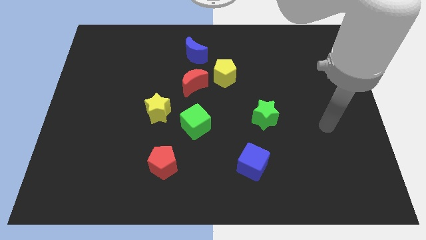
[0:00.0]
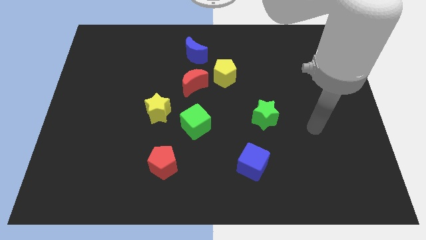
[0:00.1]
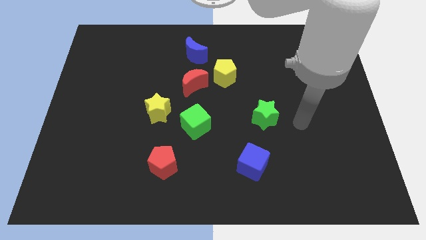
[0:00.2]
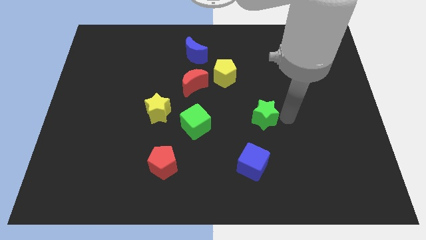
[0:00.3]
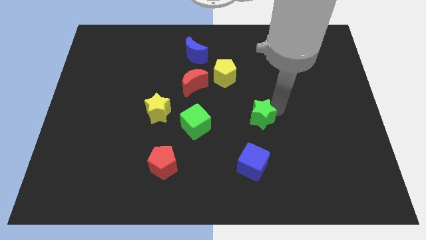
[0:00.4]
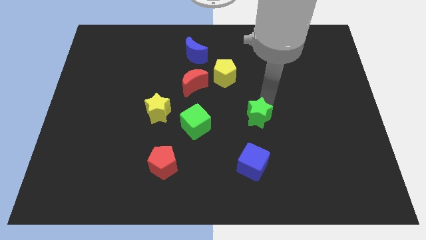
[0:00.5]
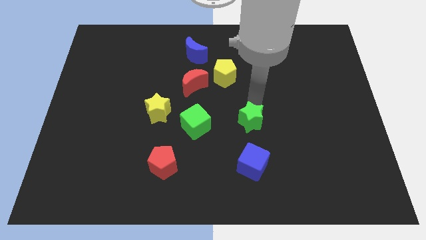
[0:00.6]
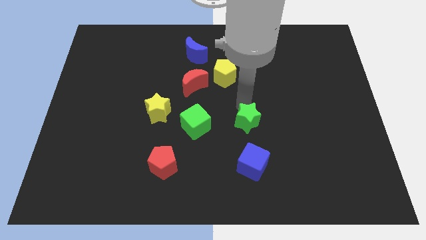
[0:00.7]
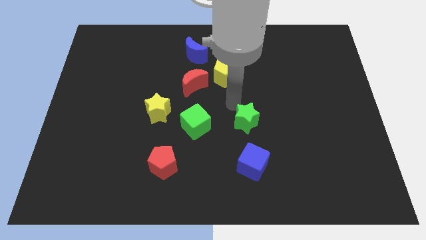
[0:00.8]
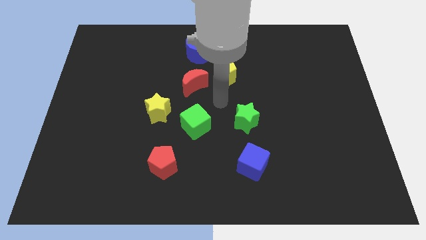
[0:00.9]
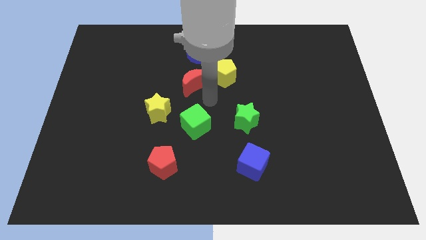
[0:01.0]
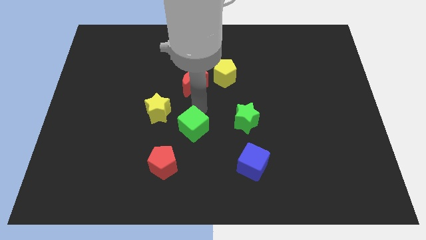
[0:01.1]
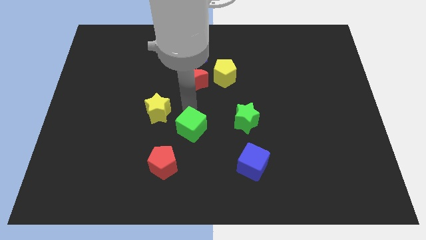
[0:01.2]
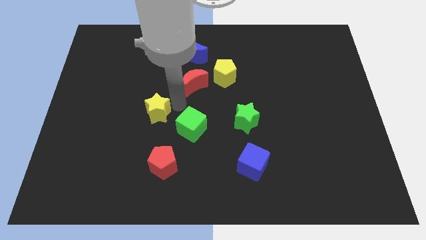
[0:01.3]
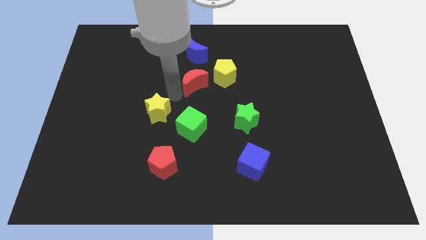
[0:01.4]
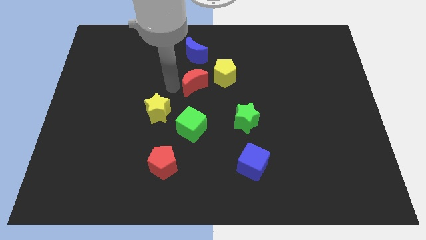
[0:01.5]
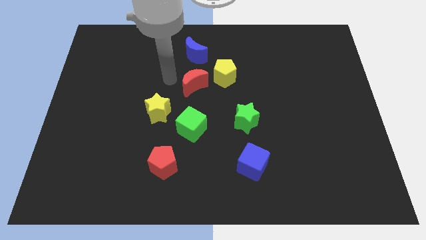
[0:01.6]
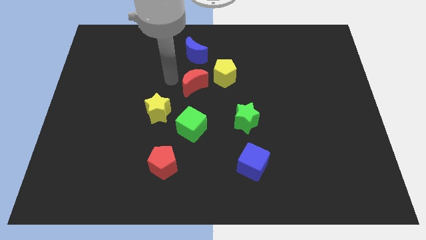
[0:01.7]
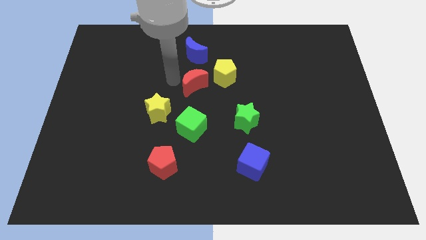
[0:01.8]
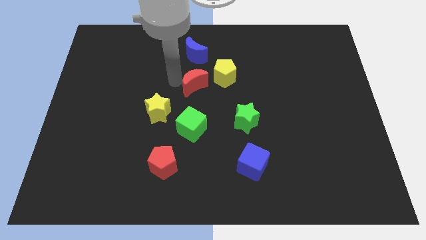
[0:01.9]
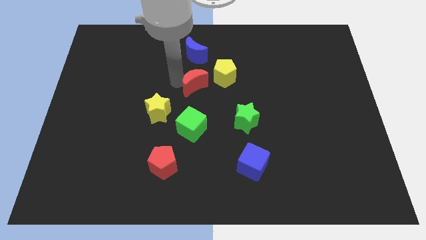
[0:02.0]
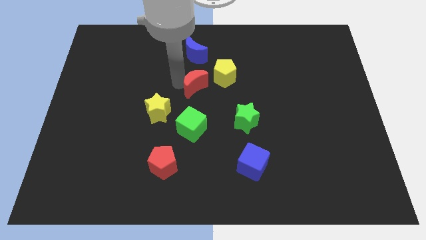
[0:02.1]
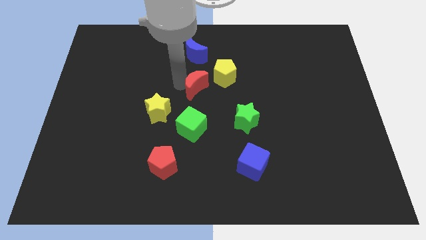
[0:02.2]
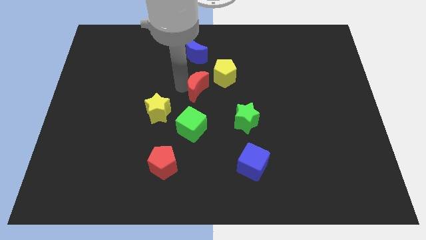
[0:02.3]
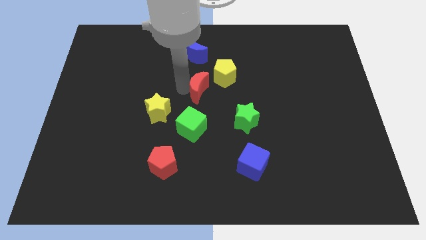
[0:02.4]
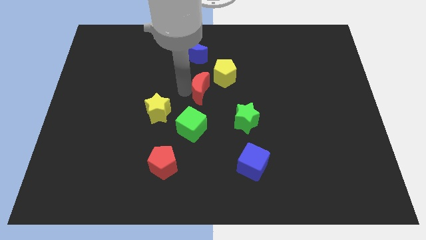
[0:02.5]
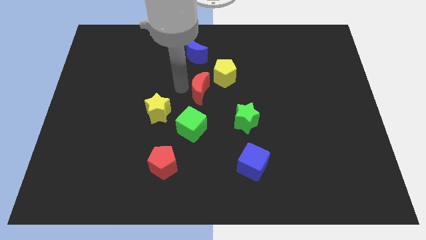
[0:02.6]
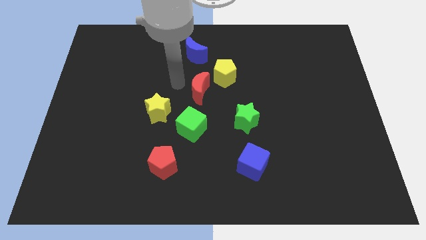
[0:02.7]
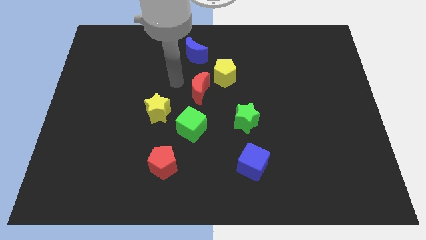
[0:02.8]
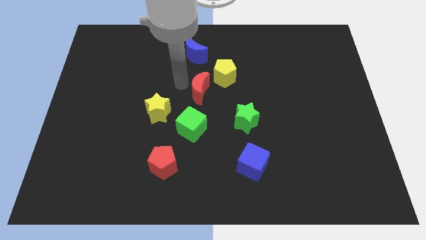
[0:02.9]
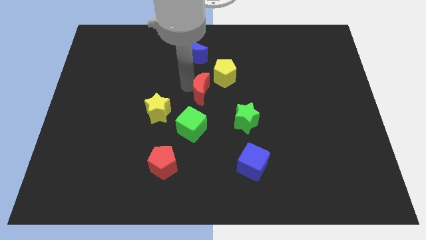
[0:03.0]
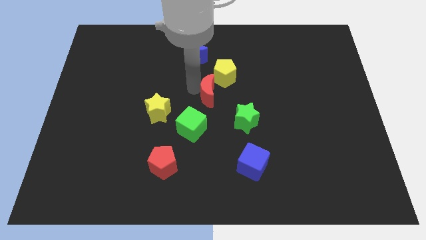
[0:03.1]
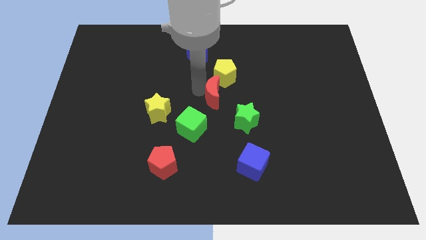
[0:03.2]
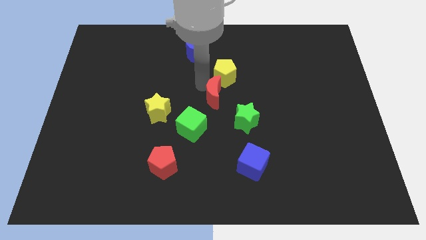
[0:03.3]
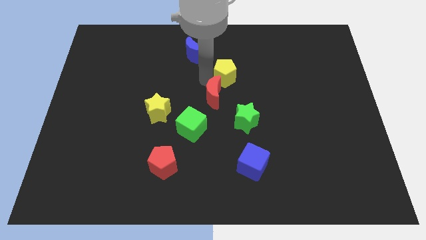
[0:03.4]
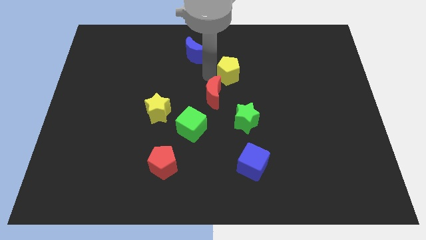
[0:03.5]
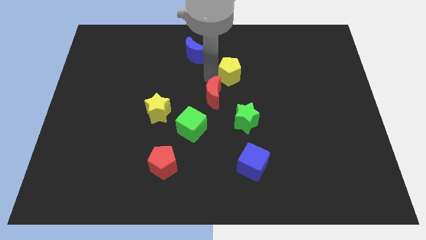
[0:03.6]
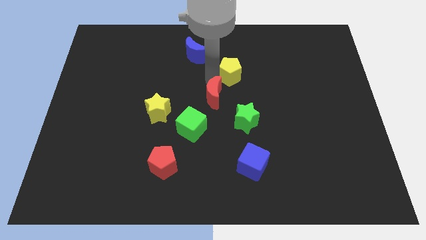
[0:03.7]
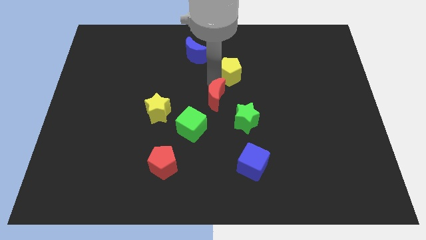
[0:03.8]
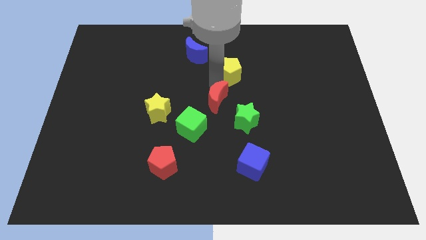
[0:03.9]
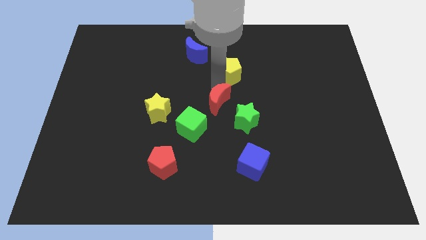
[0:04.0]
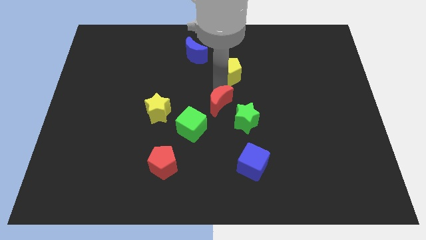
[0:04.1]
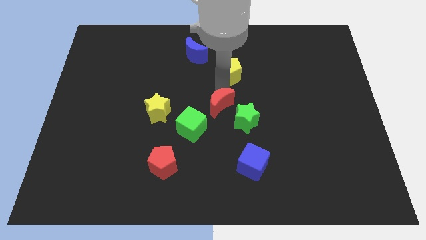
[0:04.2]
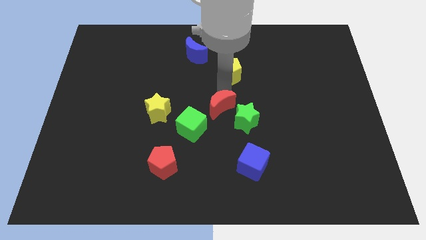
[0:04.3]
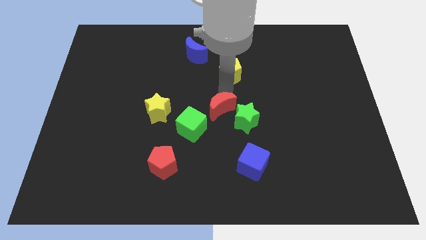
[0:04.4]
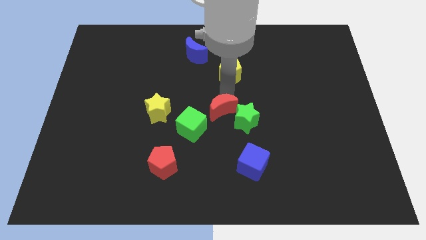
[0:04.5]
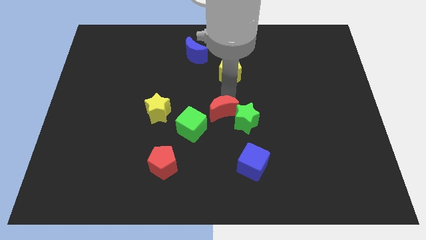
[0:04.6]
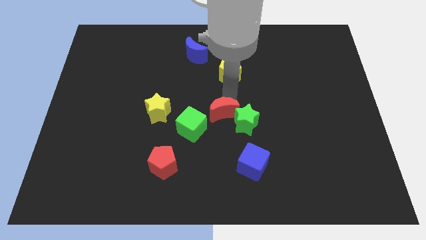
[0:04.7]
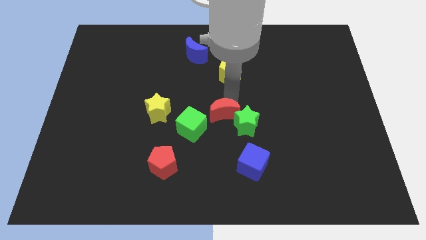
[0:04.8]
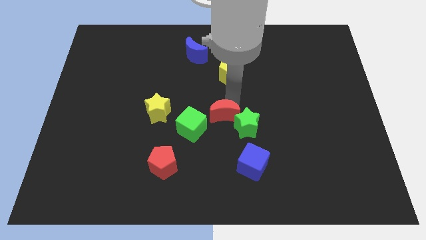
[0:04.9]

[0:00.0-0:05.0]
slide the red moon slightly down

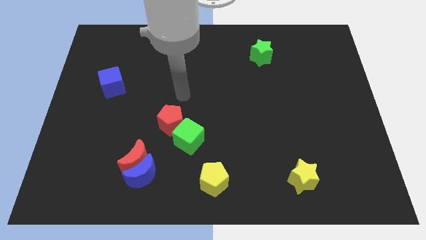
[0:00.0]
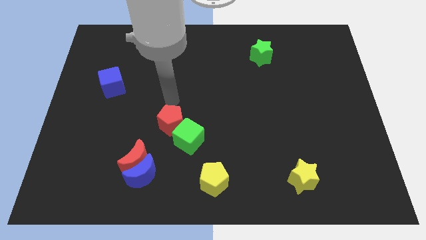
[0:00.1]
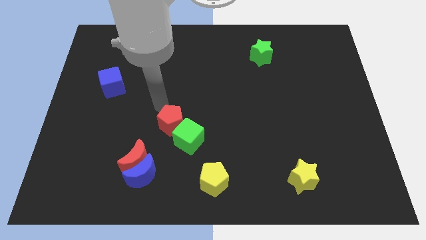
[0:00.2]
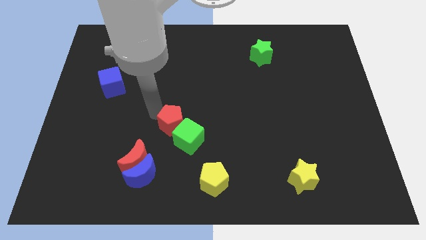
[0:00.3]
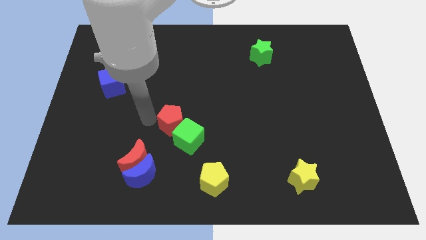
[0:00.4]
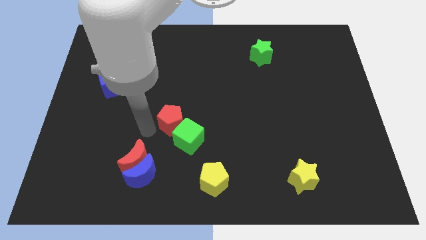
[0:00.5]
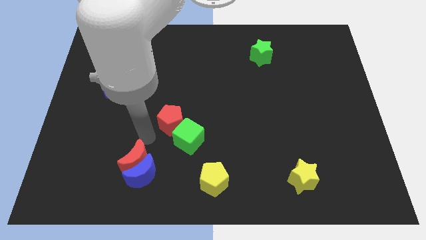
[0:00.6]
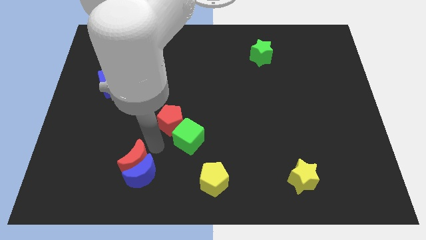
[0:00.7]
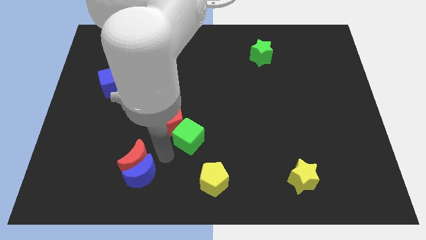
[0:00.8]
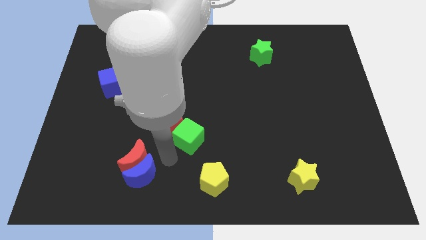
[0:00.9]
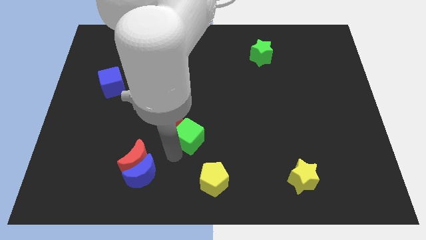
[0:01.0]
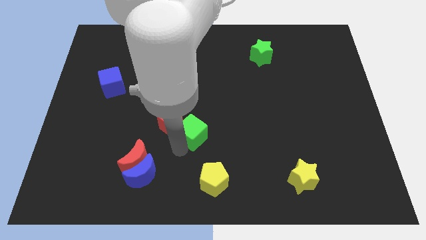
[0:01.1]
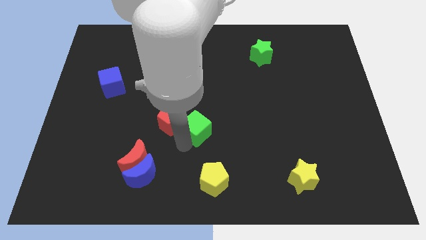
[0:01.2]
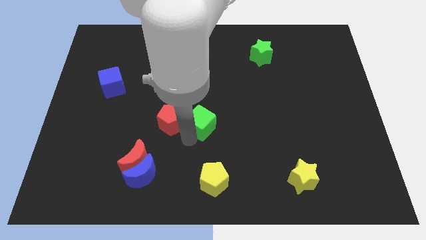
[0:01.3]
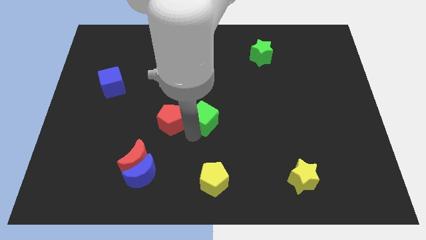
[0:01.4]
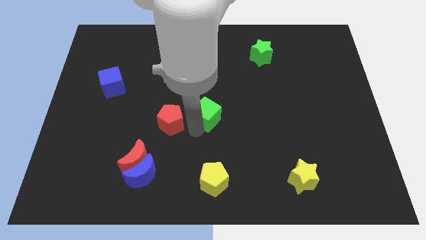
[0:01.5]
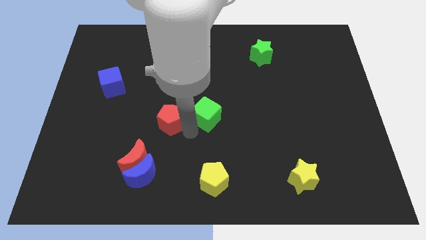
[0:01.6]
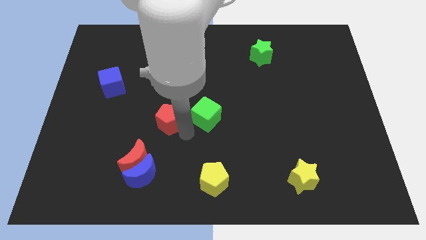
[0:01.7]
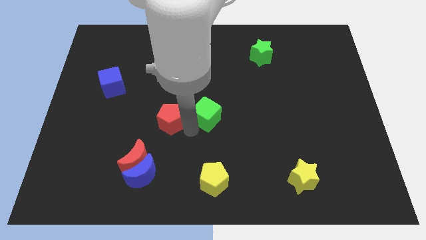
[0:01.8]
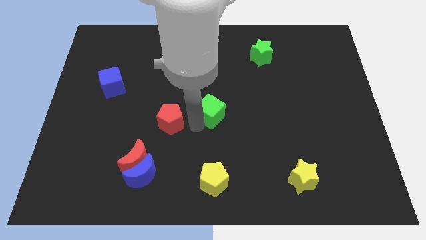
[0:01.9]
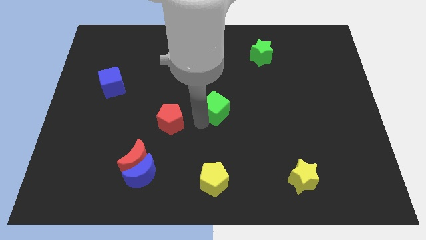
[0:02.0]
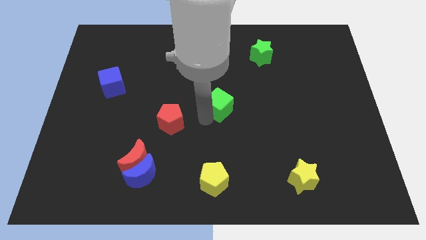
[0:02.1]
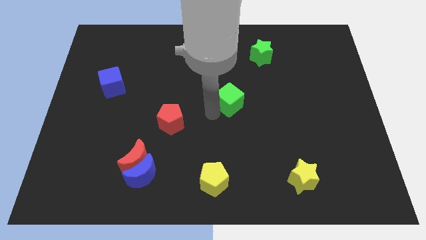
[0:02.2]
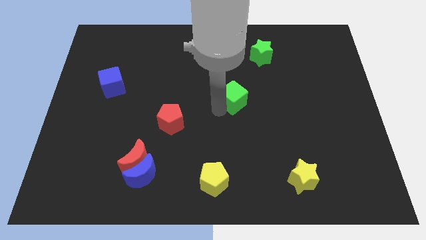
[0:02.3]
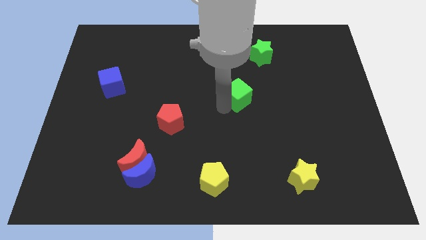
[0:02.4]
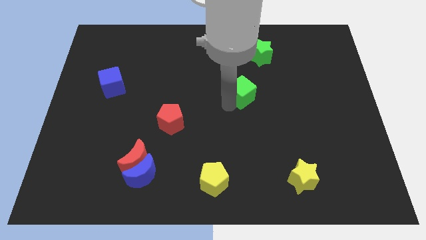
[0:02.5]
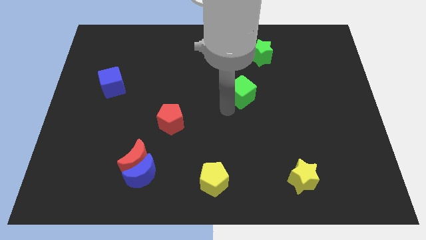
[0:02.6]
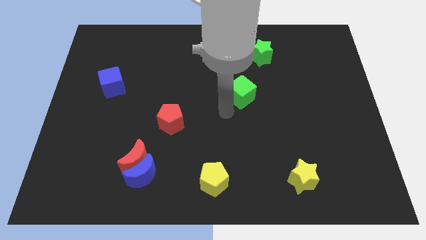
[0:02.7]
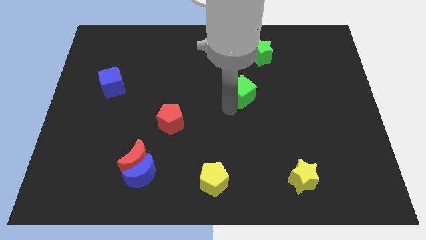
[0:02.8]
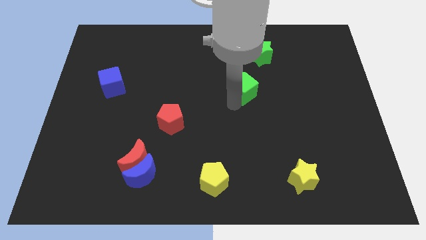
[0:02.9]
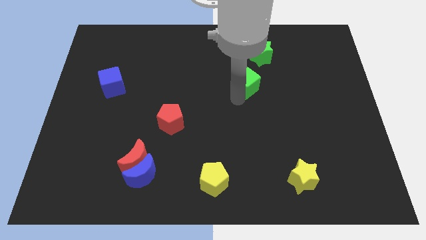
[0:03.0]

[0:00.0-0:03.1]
move the green cube upwards and to the right diagonally
